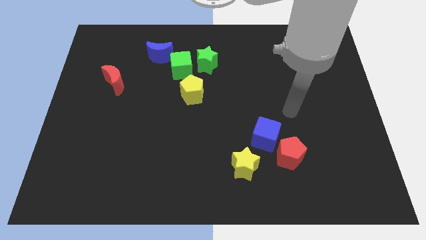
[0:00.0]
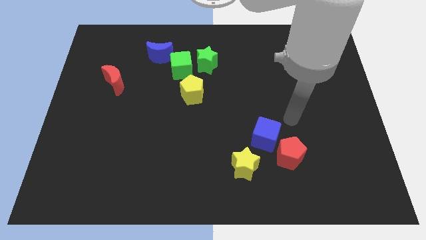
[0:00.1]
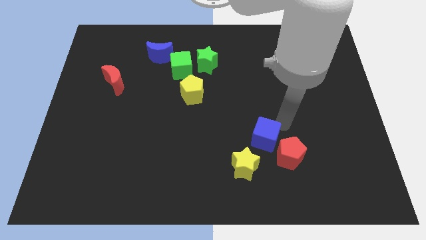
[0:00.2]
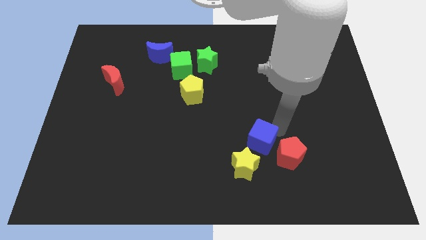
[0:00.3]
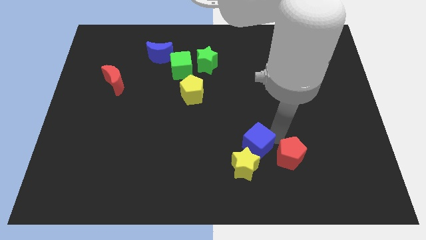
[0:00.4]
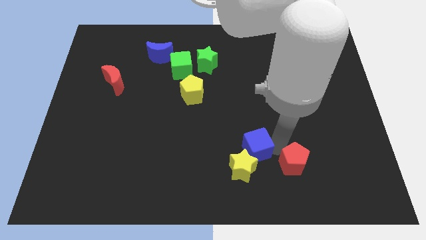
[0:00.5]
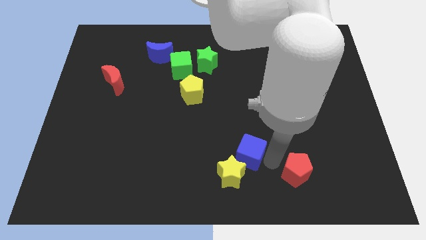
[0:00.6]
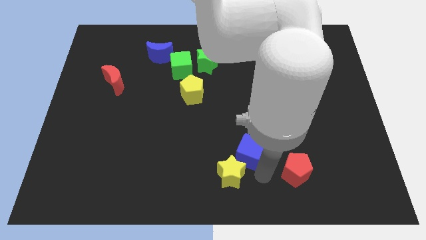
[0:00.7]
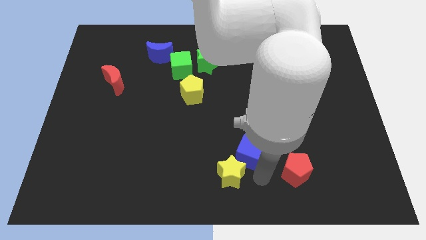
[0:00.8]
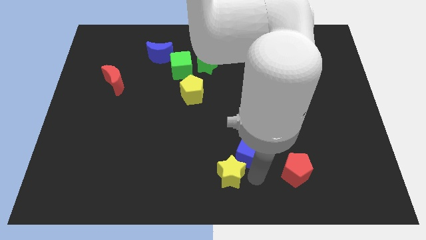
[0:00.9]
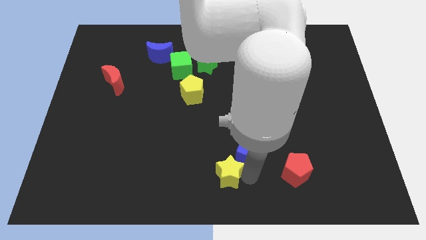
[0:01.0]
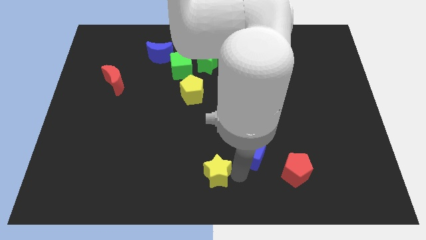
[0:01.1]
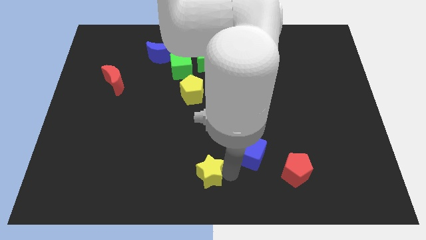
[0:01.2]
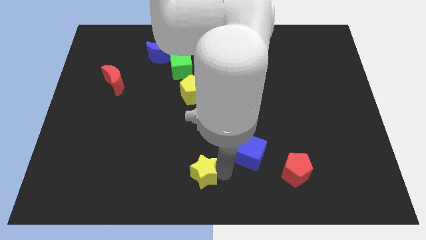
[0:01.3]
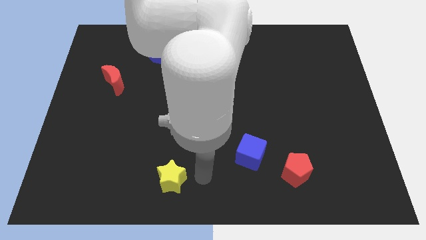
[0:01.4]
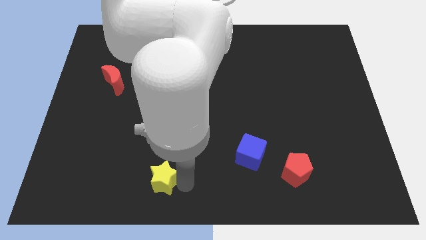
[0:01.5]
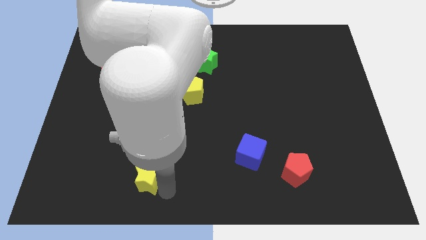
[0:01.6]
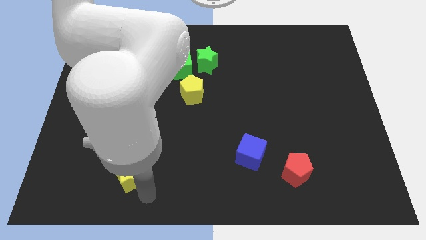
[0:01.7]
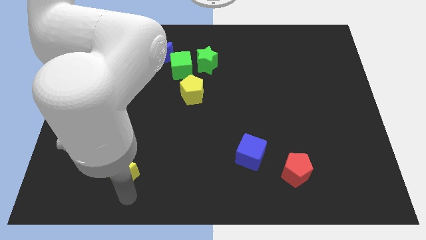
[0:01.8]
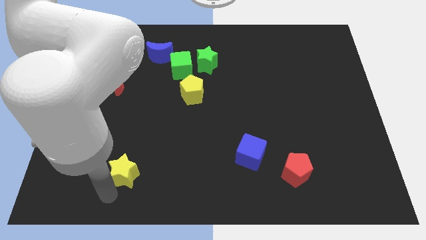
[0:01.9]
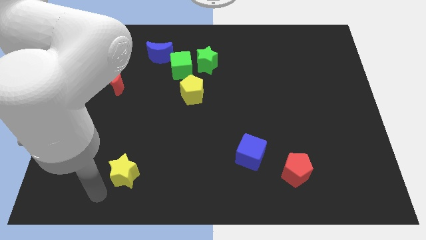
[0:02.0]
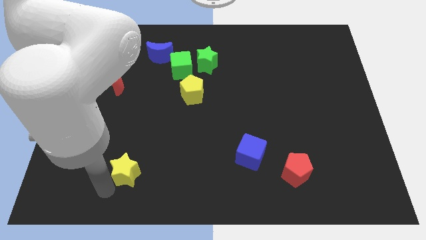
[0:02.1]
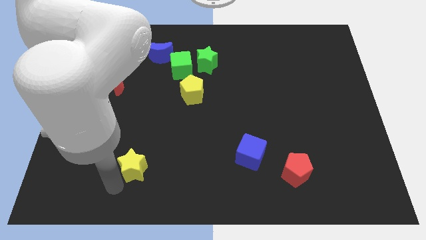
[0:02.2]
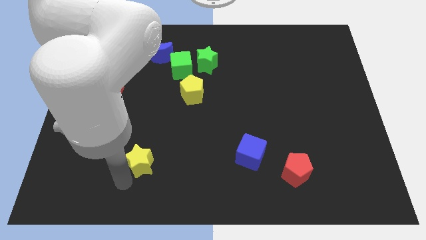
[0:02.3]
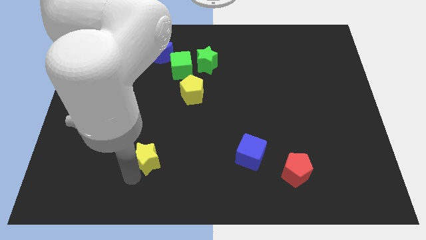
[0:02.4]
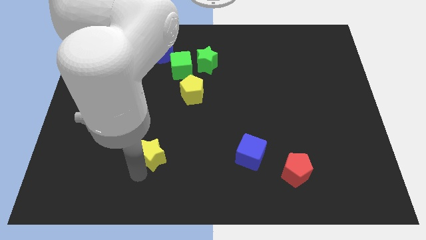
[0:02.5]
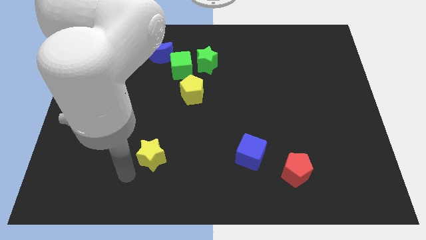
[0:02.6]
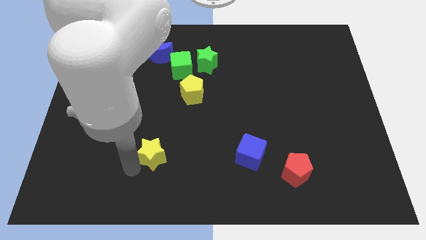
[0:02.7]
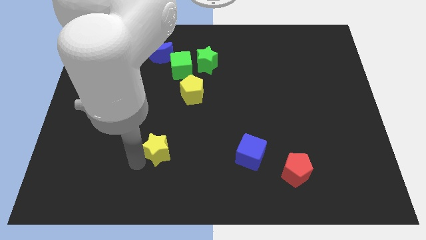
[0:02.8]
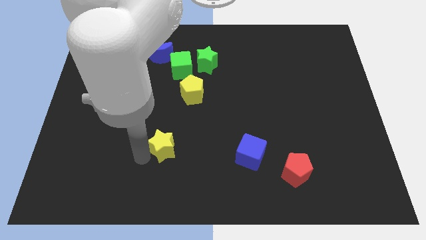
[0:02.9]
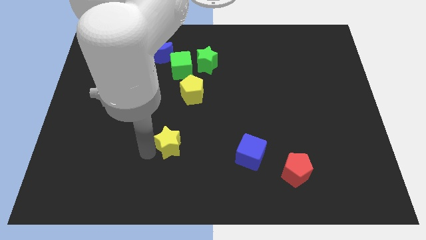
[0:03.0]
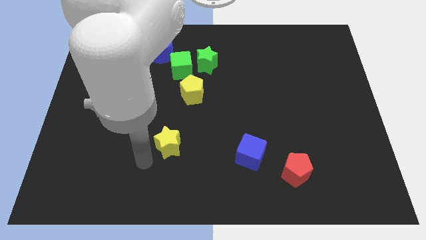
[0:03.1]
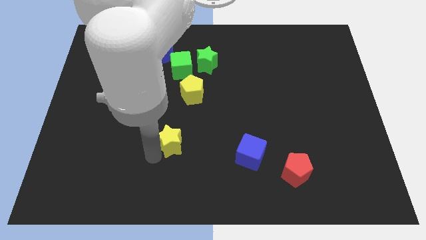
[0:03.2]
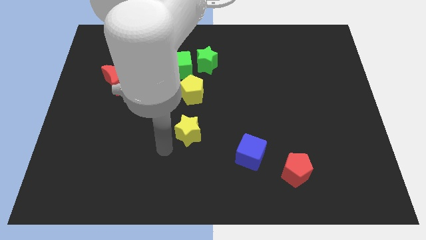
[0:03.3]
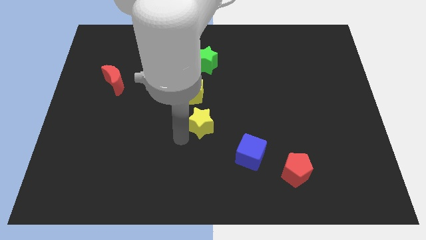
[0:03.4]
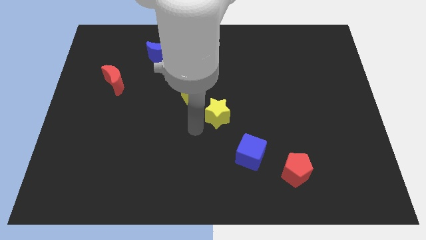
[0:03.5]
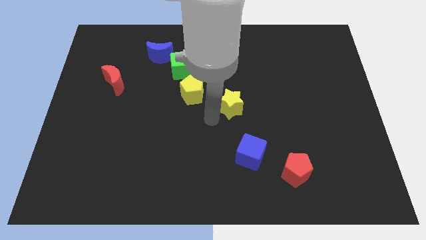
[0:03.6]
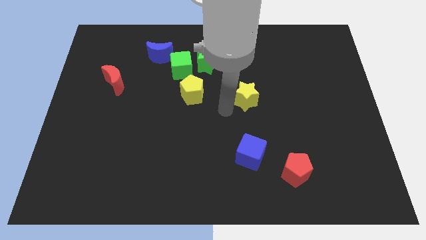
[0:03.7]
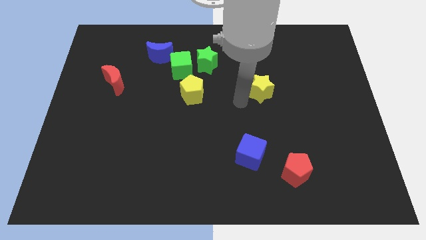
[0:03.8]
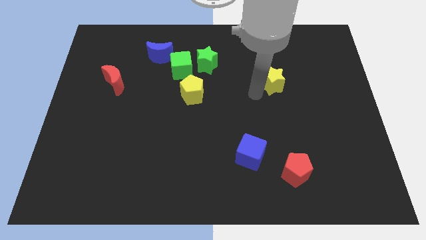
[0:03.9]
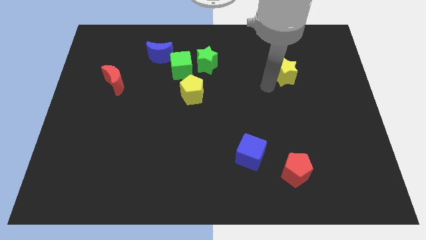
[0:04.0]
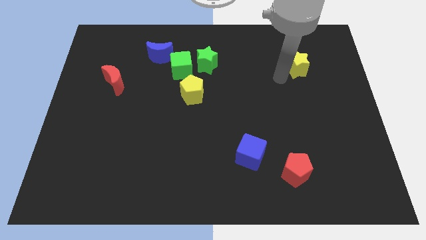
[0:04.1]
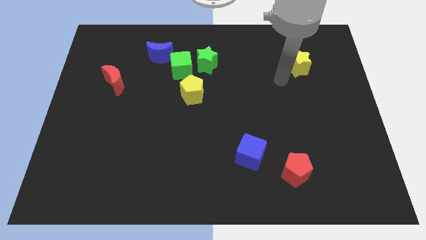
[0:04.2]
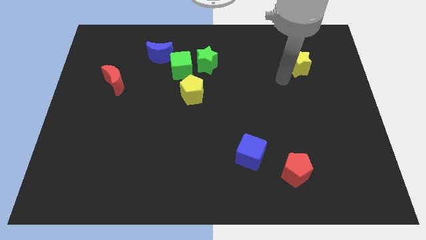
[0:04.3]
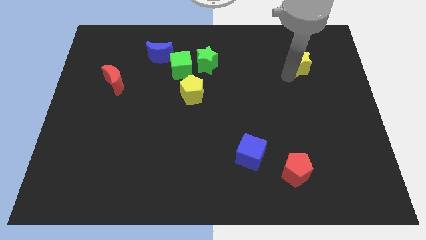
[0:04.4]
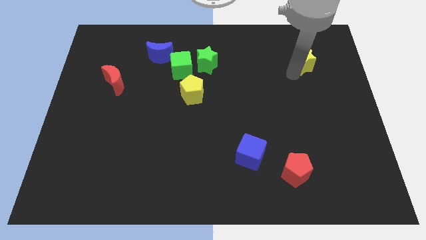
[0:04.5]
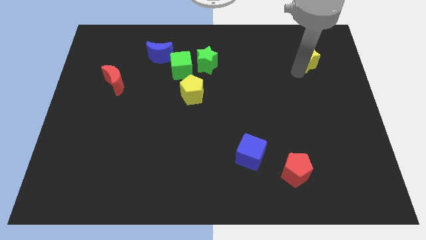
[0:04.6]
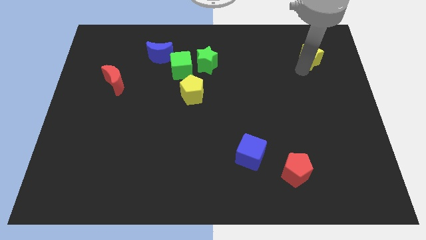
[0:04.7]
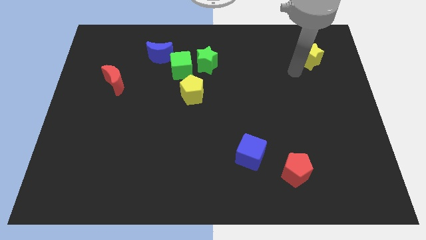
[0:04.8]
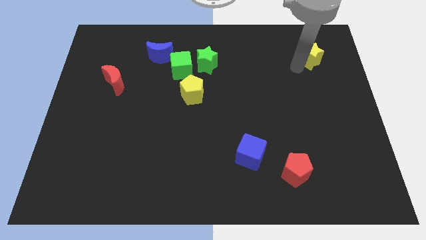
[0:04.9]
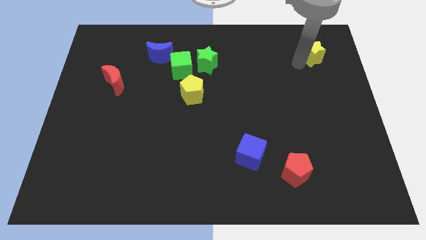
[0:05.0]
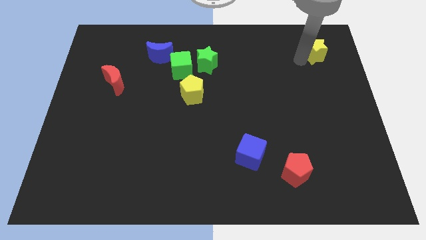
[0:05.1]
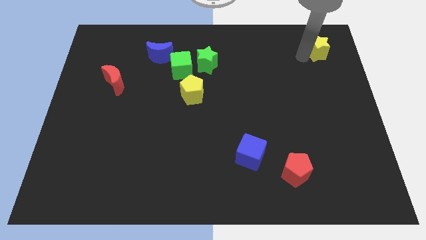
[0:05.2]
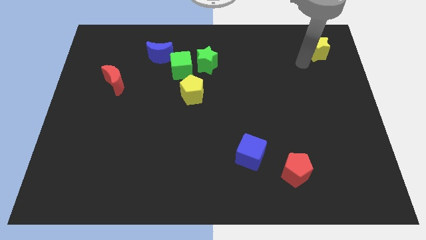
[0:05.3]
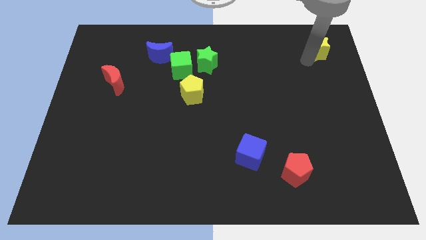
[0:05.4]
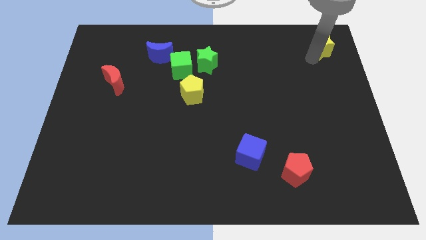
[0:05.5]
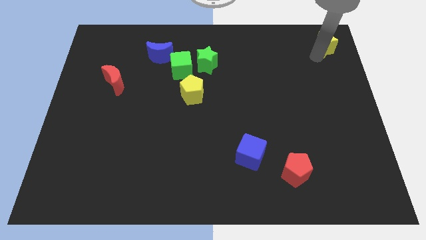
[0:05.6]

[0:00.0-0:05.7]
push the yellow star to the top right
